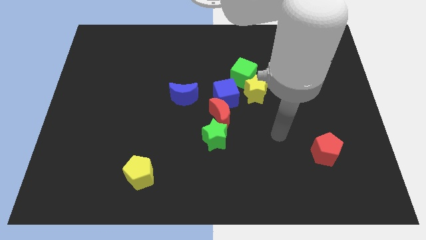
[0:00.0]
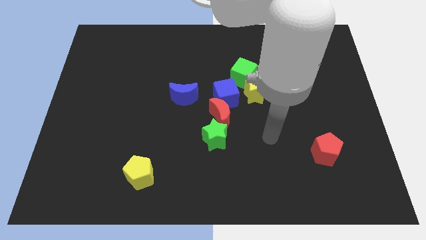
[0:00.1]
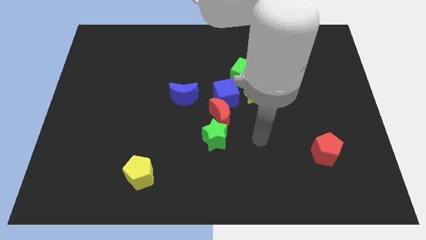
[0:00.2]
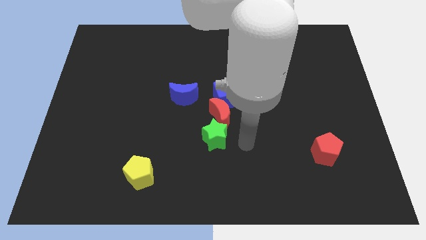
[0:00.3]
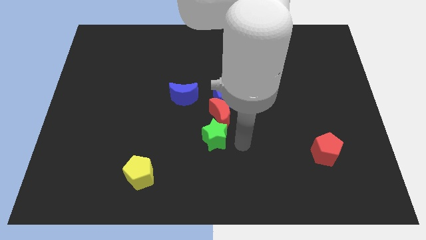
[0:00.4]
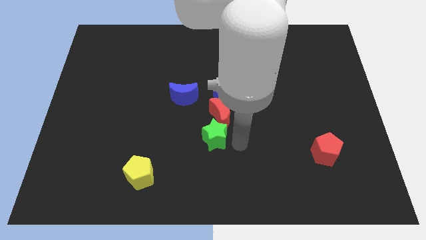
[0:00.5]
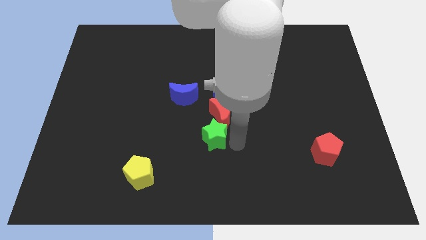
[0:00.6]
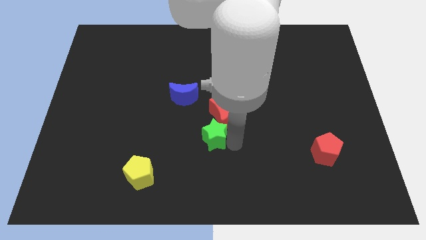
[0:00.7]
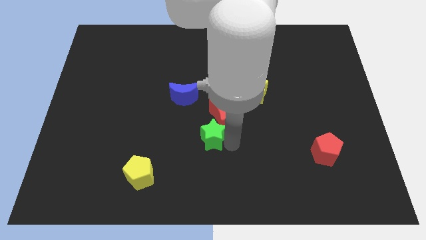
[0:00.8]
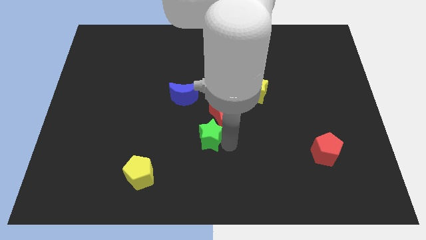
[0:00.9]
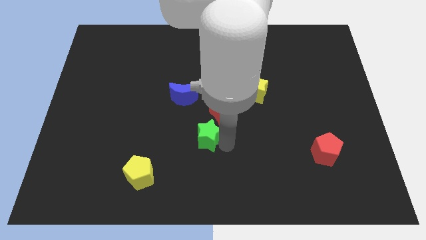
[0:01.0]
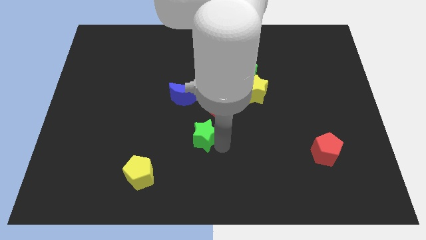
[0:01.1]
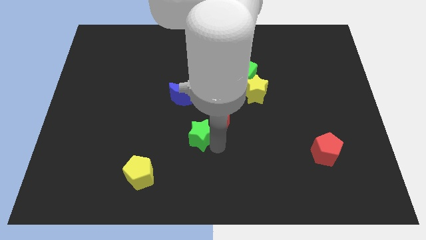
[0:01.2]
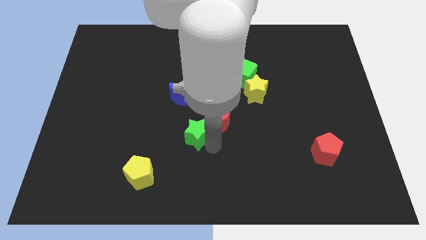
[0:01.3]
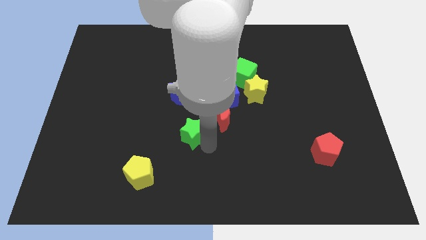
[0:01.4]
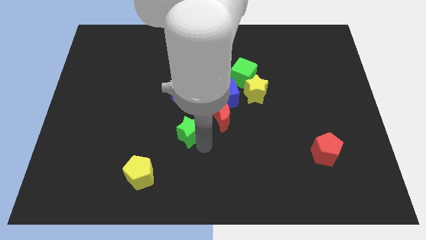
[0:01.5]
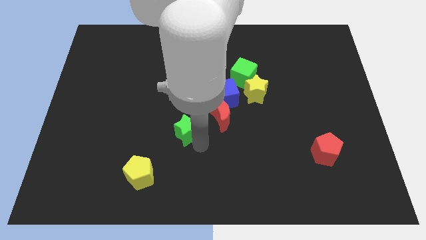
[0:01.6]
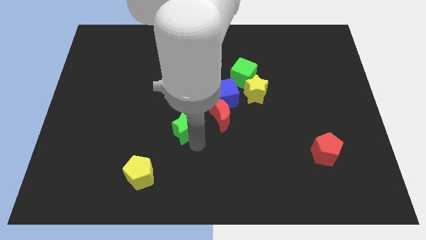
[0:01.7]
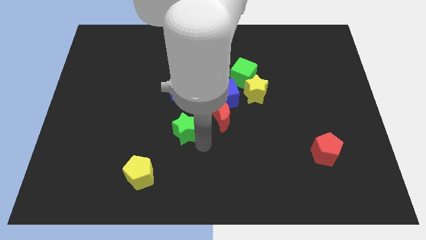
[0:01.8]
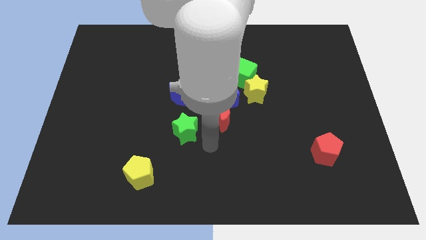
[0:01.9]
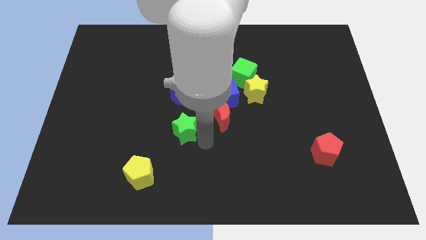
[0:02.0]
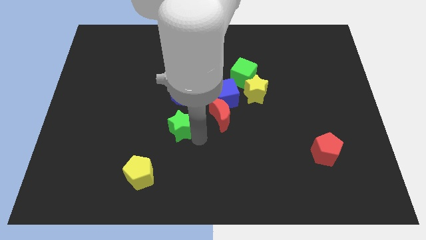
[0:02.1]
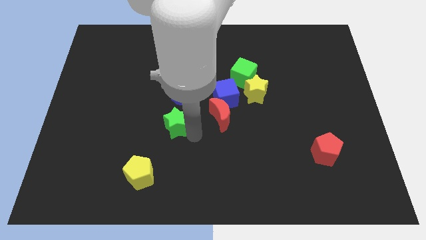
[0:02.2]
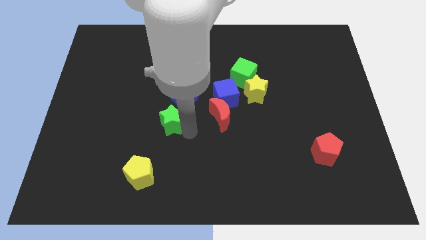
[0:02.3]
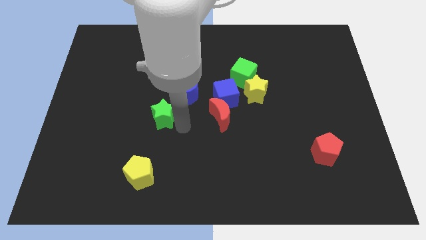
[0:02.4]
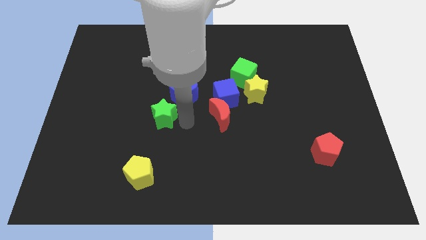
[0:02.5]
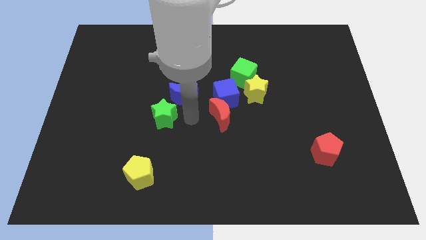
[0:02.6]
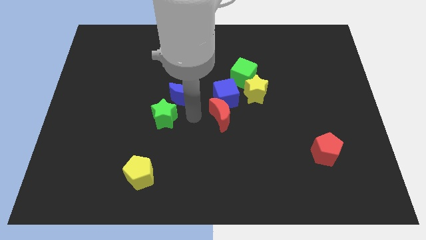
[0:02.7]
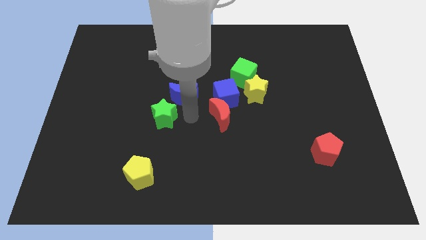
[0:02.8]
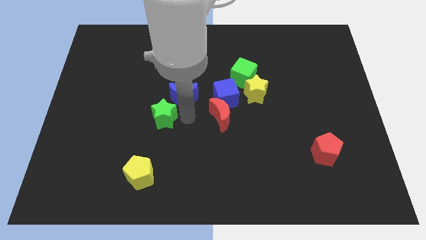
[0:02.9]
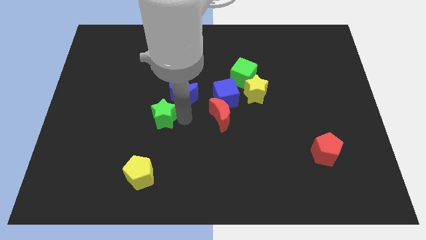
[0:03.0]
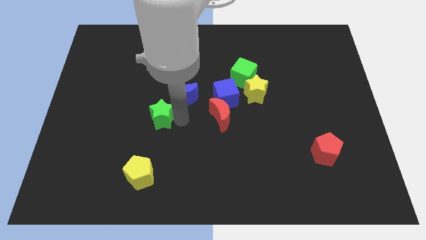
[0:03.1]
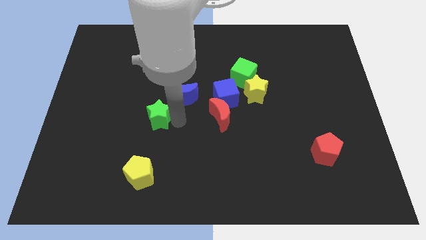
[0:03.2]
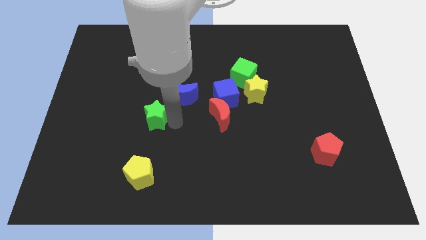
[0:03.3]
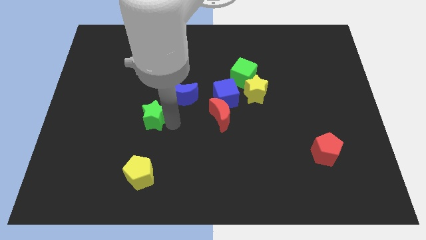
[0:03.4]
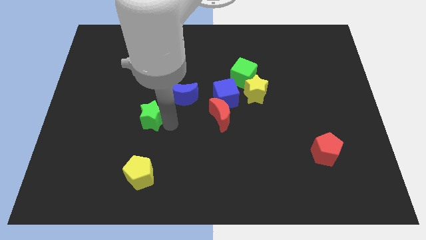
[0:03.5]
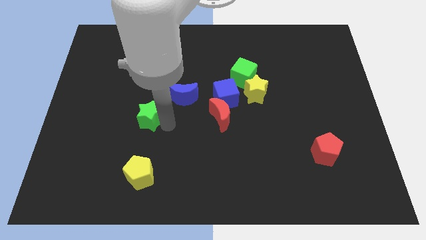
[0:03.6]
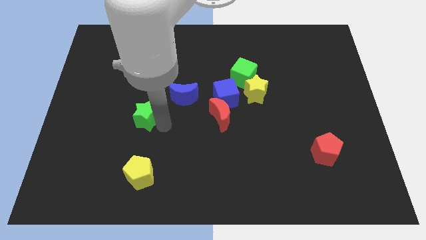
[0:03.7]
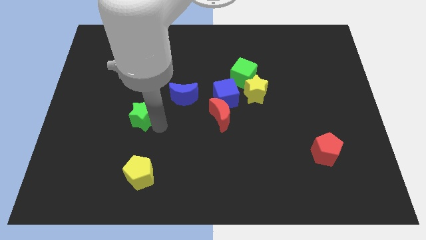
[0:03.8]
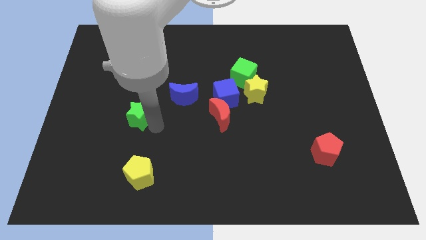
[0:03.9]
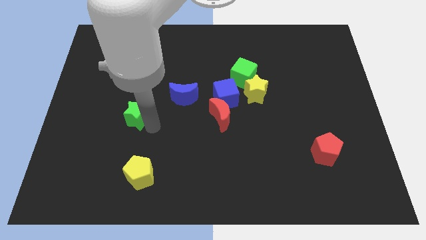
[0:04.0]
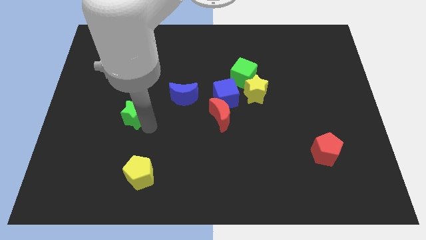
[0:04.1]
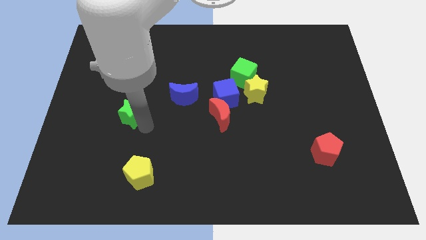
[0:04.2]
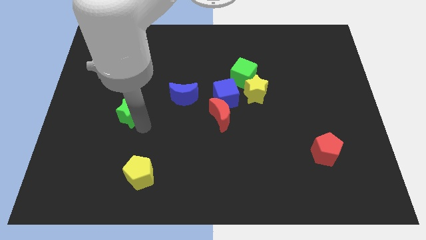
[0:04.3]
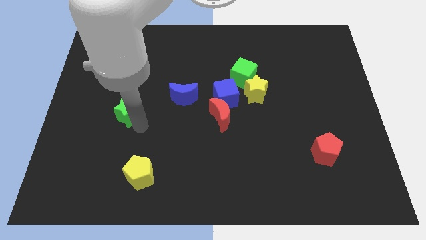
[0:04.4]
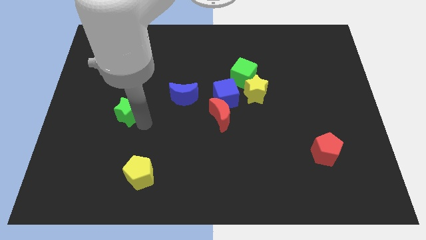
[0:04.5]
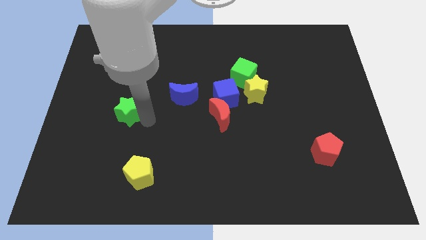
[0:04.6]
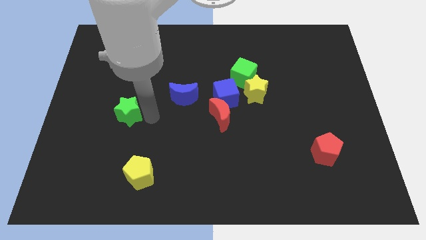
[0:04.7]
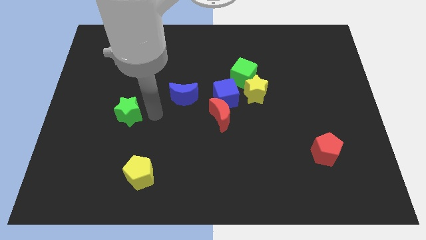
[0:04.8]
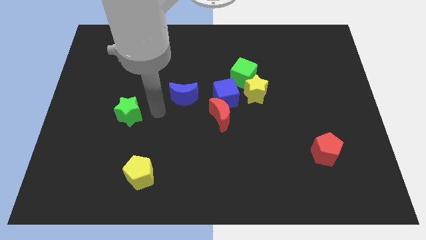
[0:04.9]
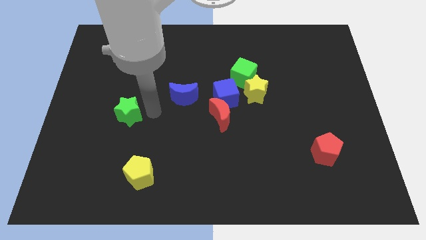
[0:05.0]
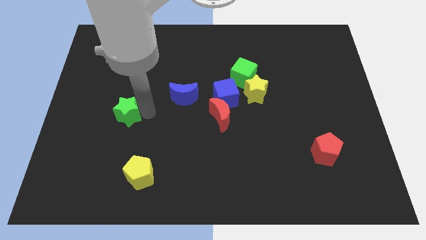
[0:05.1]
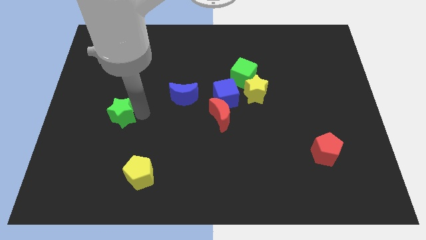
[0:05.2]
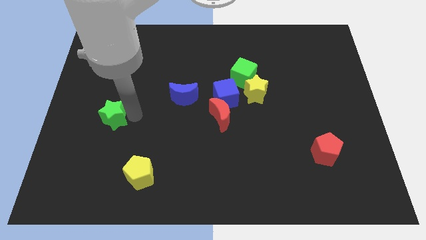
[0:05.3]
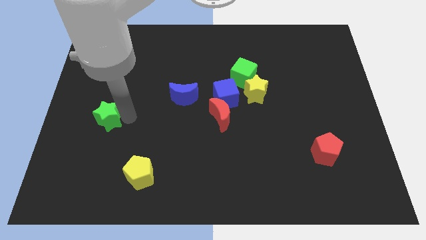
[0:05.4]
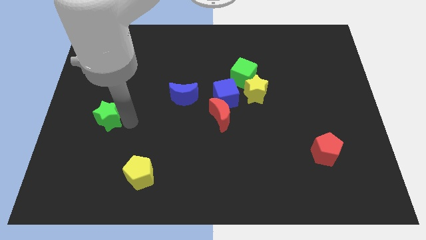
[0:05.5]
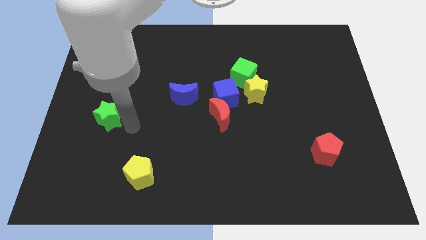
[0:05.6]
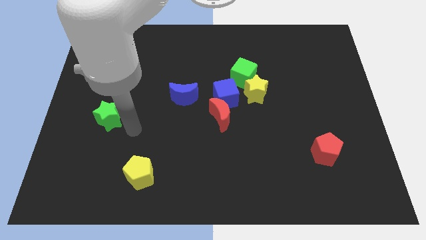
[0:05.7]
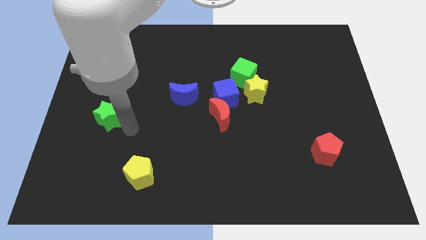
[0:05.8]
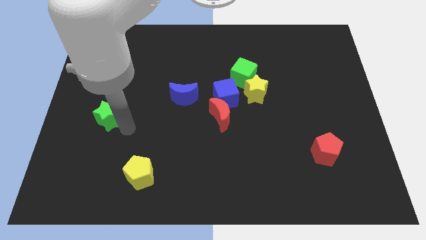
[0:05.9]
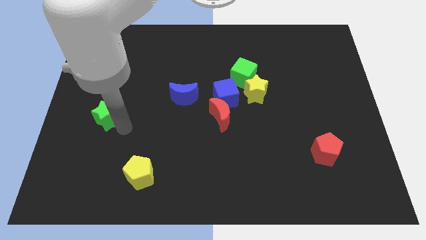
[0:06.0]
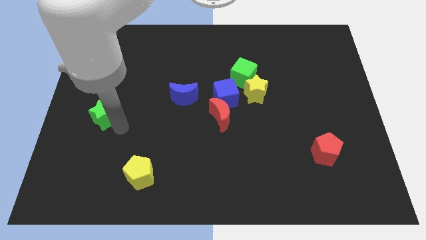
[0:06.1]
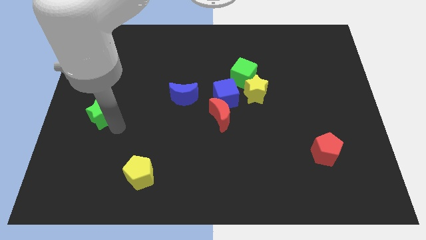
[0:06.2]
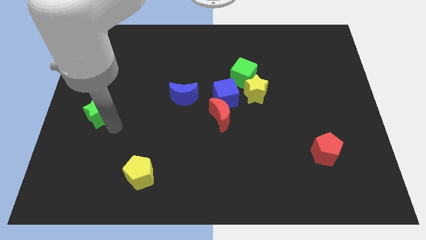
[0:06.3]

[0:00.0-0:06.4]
slide the green star to the left side of the board
